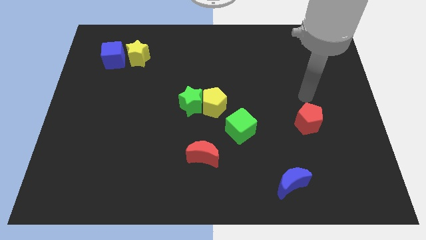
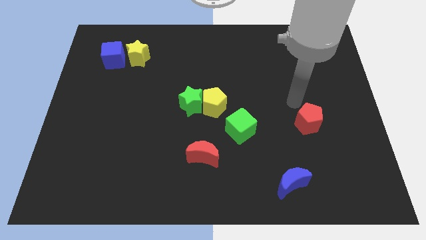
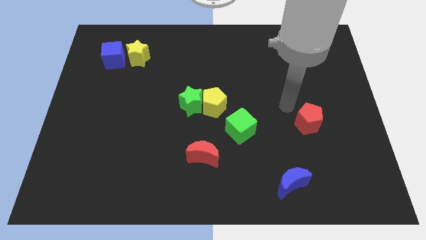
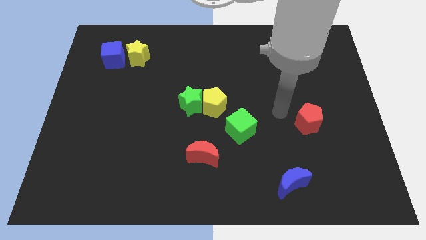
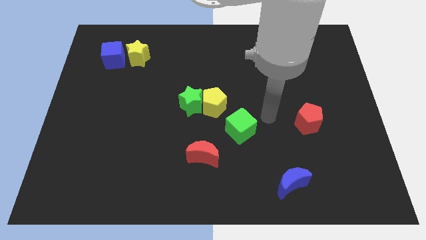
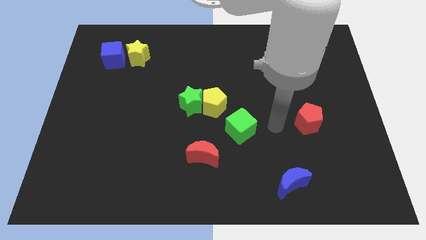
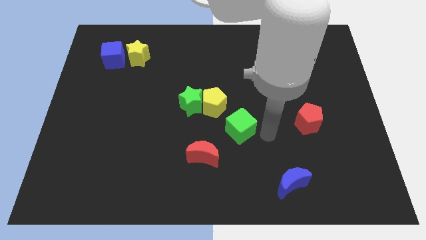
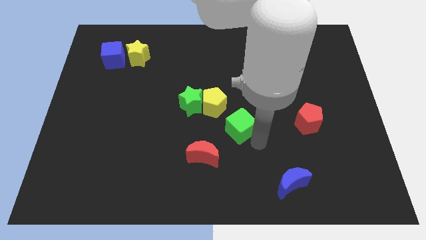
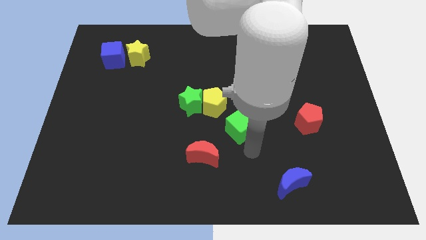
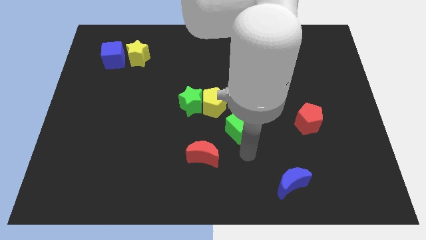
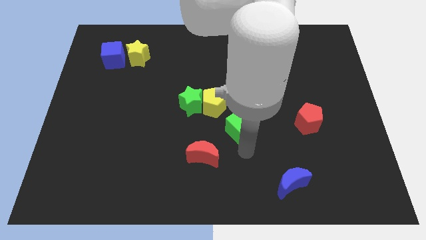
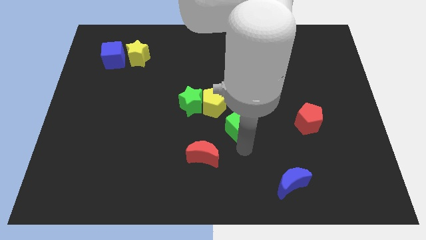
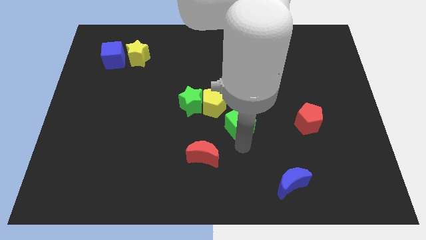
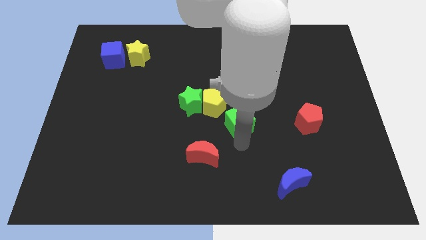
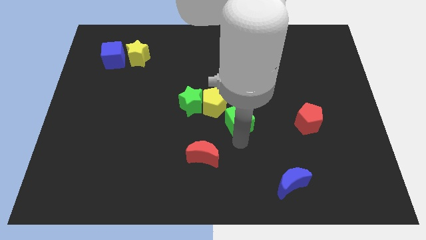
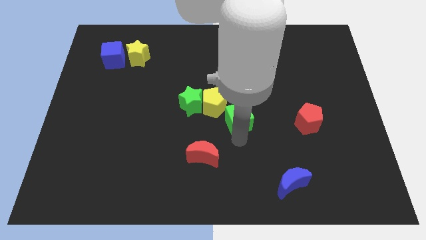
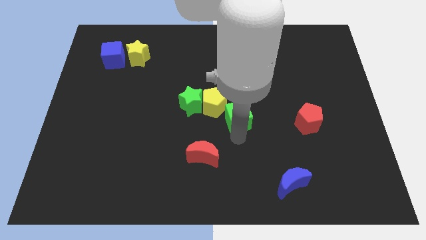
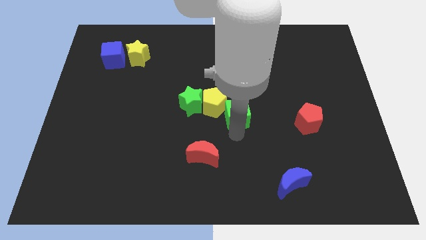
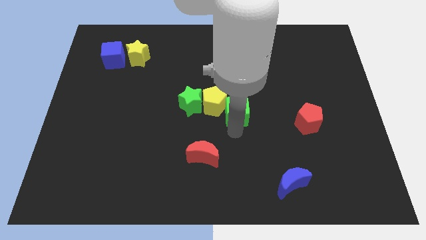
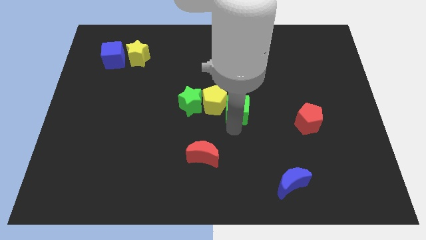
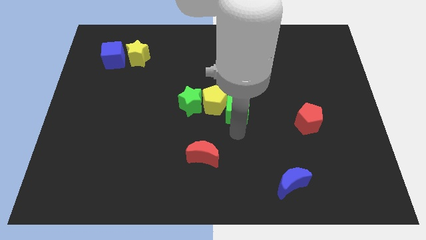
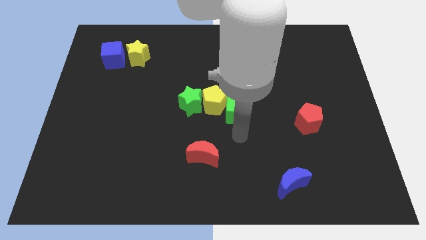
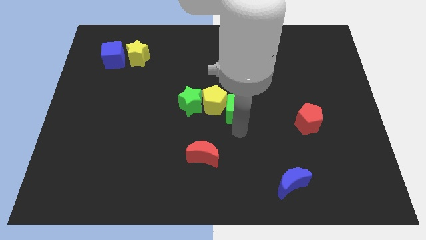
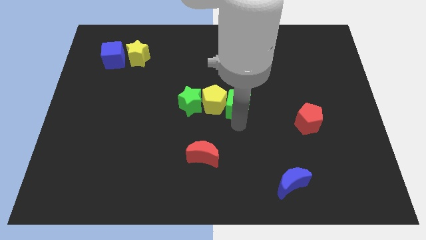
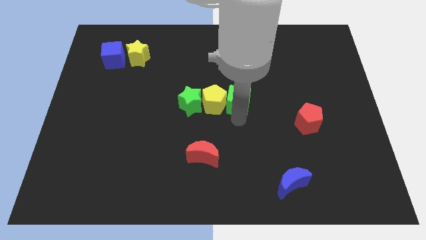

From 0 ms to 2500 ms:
slide the green cube upwards a little

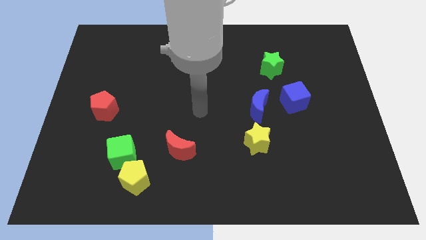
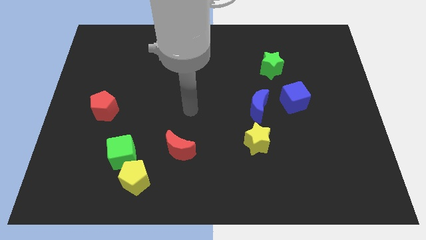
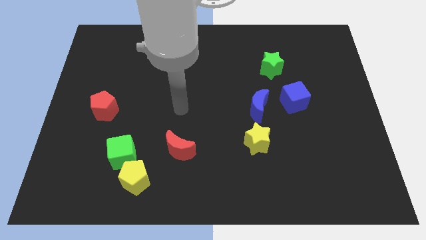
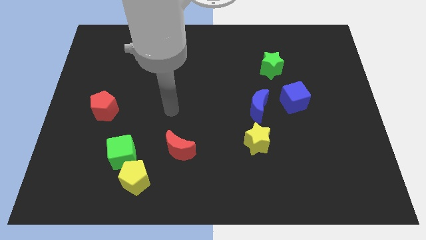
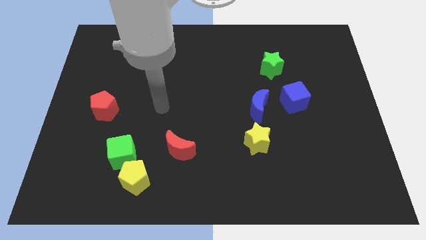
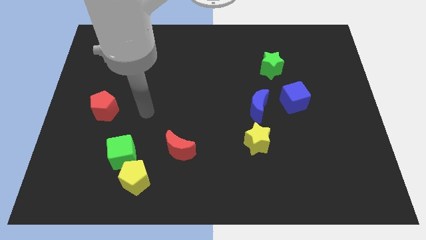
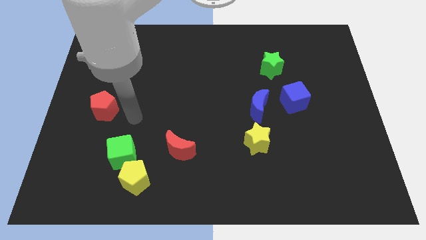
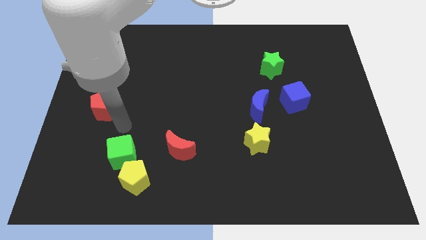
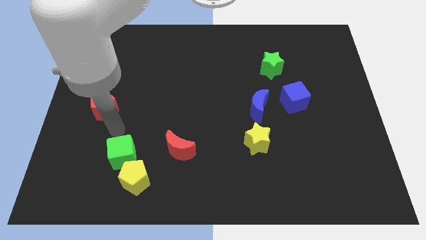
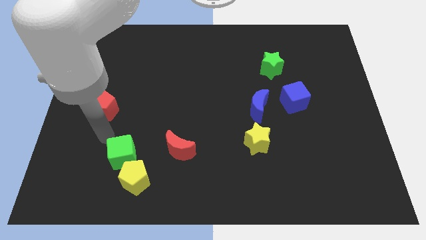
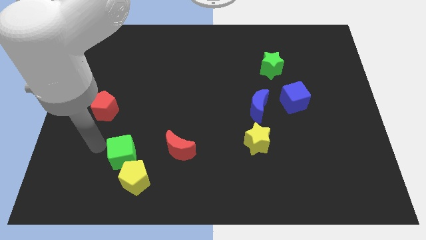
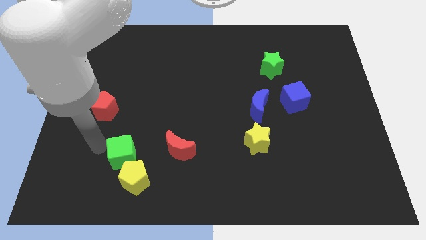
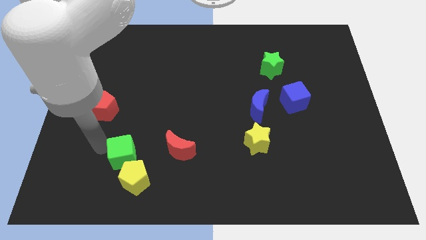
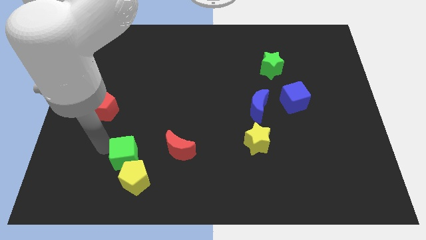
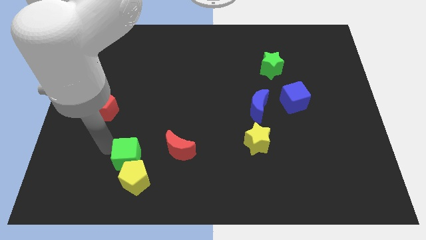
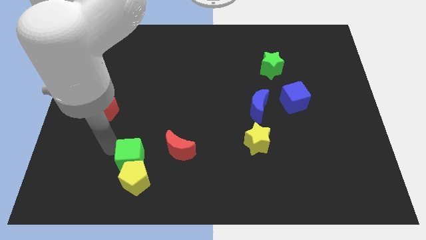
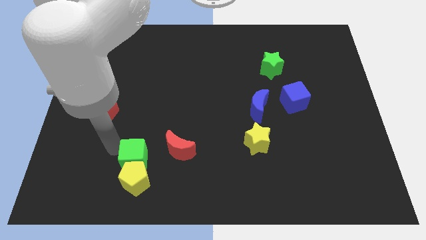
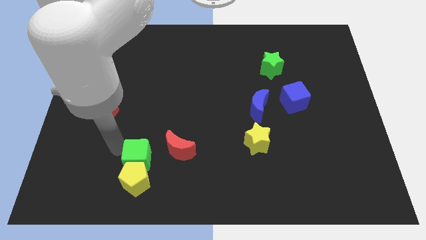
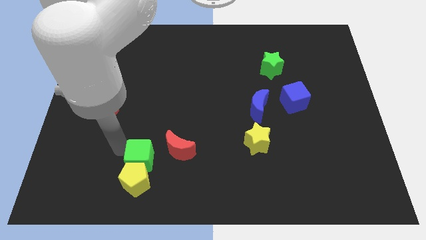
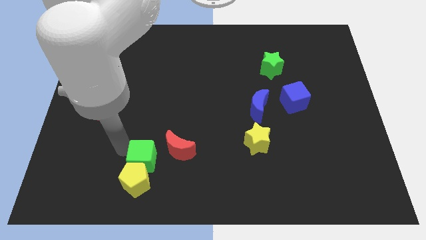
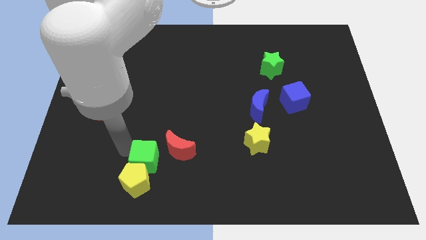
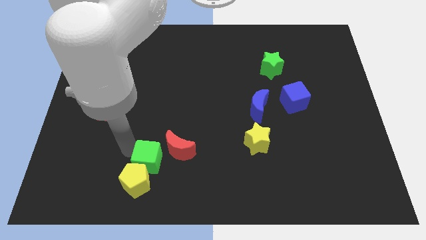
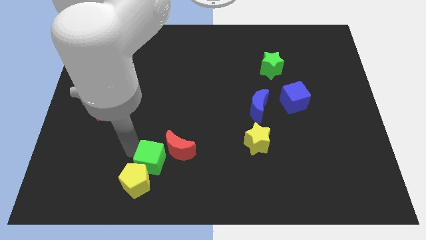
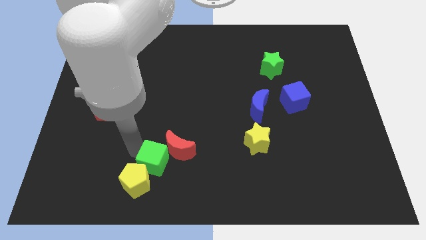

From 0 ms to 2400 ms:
slide the green cube right a little bit

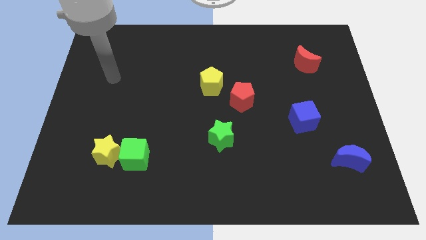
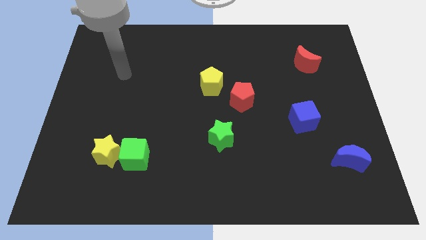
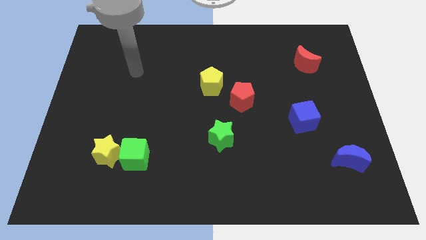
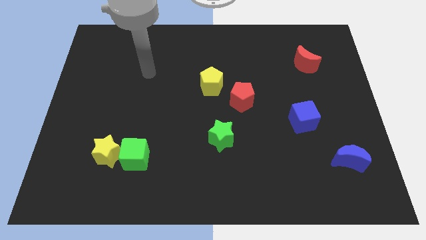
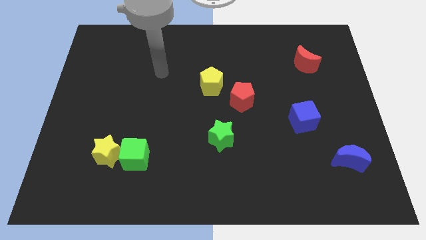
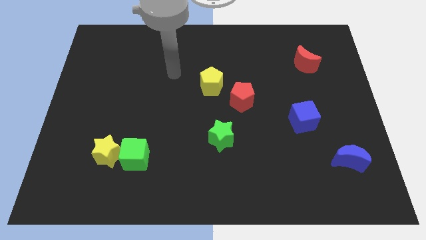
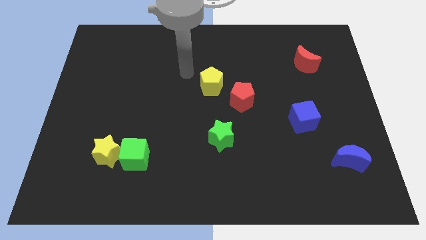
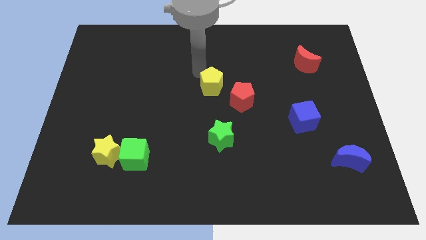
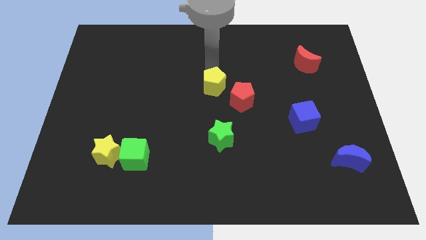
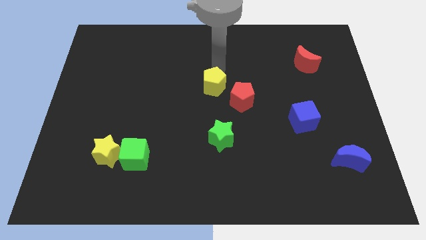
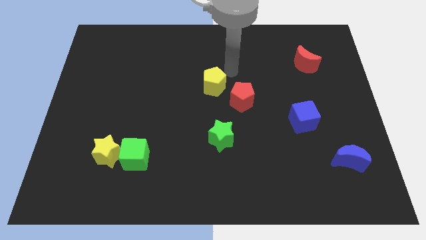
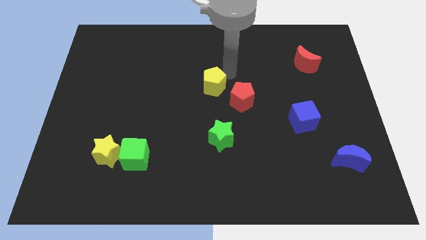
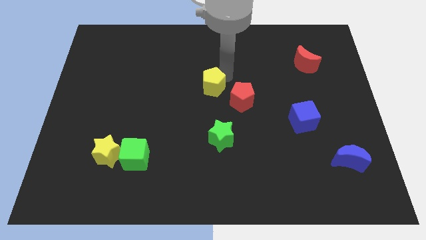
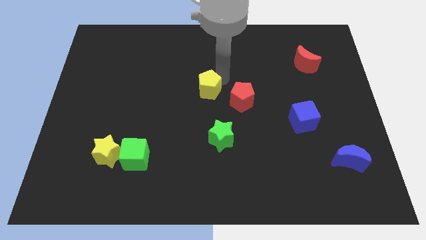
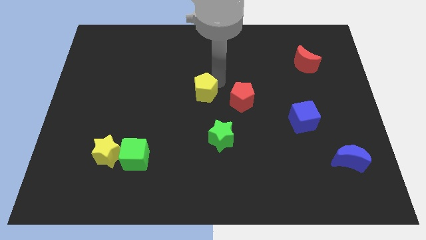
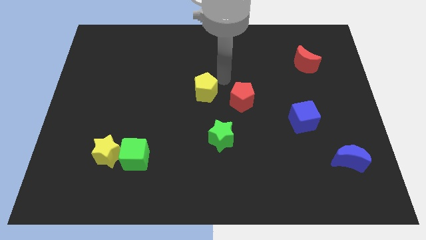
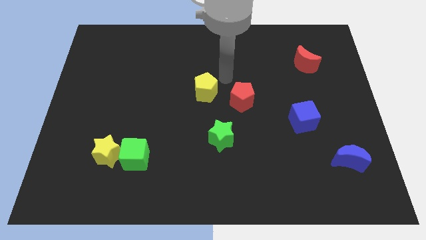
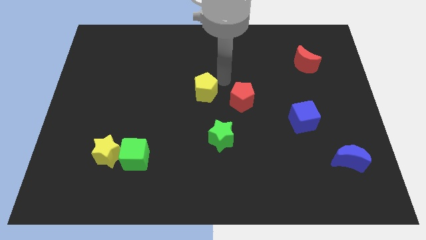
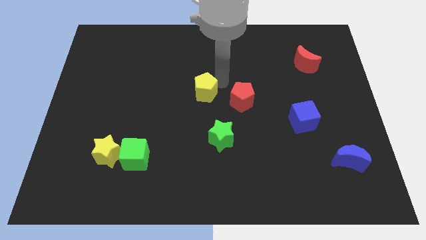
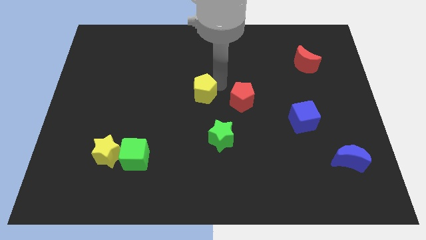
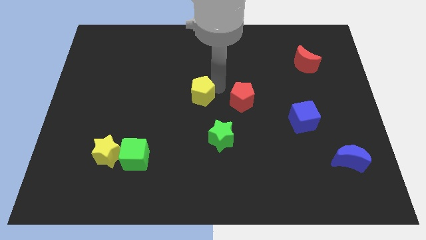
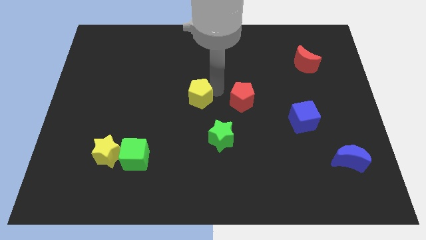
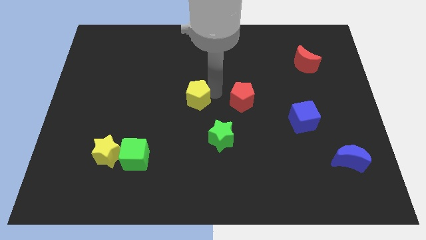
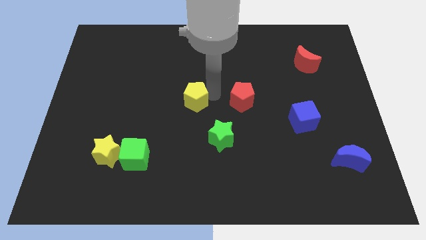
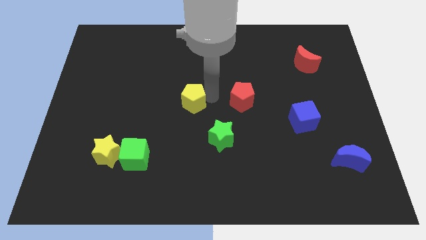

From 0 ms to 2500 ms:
move the yellow pentagon downwards and left somewhat

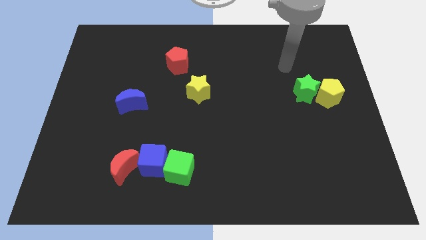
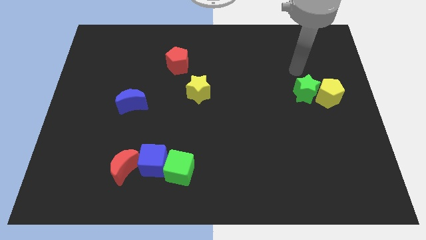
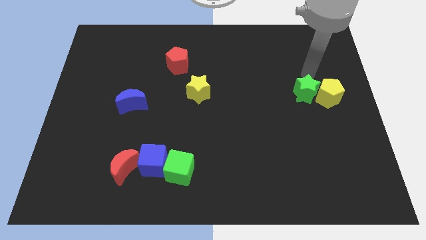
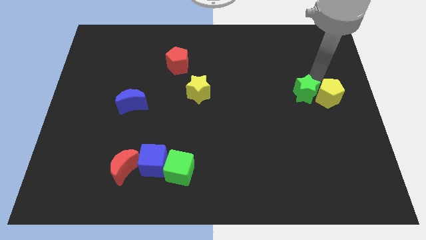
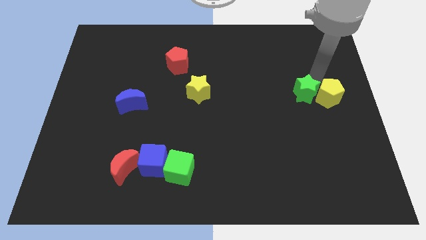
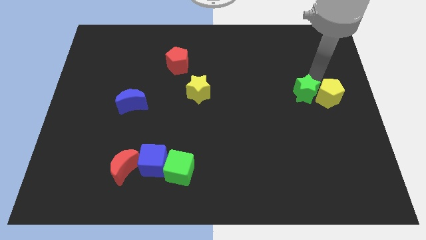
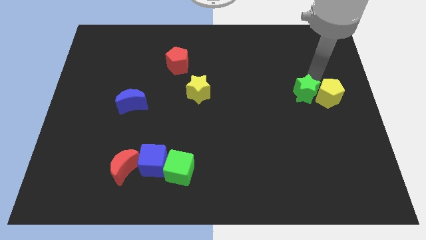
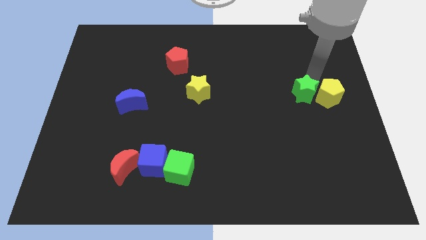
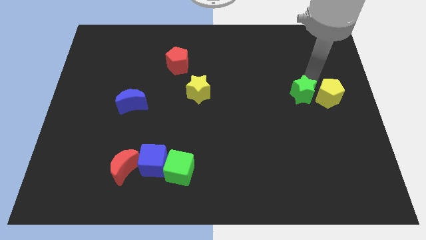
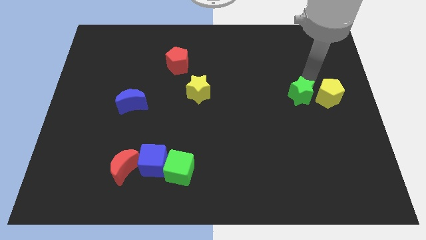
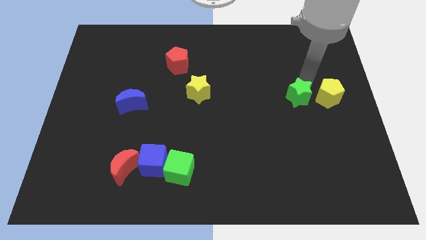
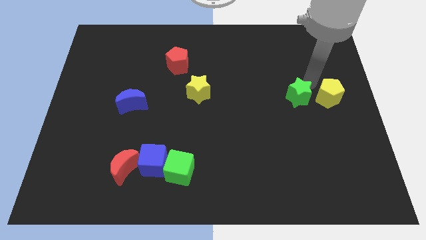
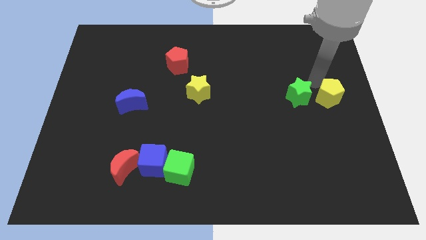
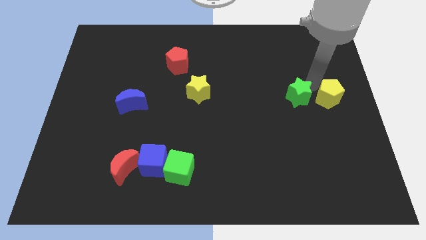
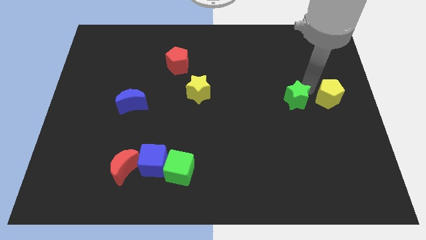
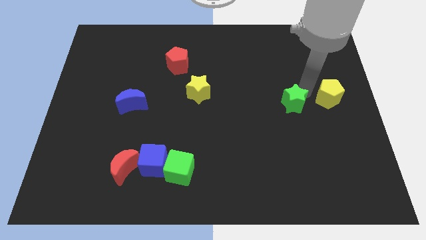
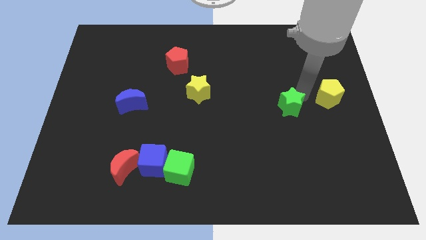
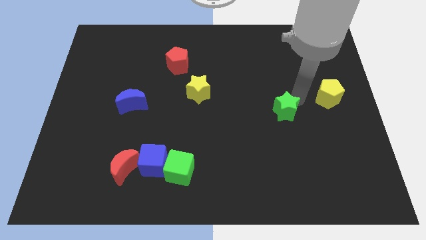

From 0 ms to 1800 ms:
slide the green star downwards and to the left a bit
